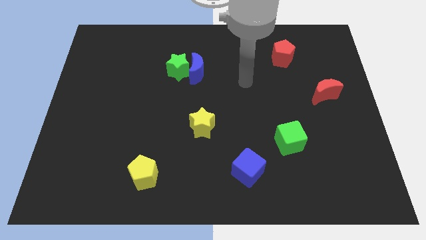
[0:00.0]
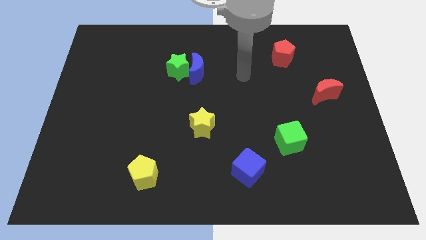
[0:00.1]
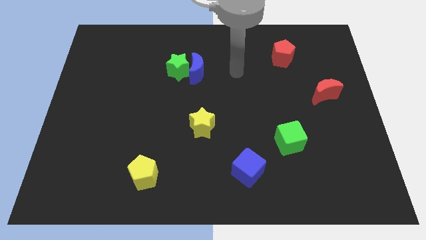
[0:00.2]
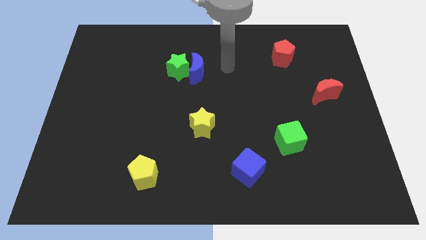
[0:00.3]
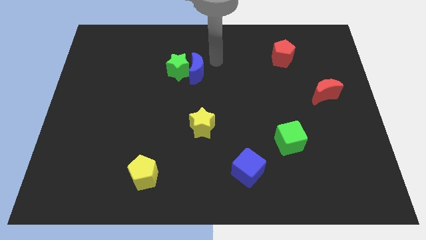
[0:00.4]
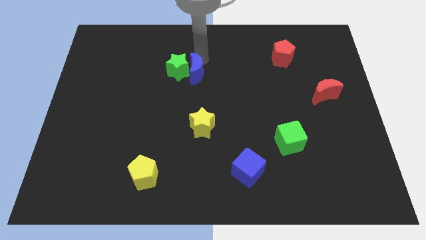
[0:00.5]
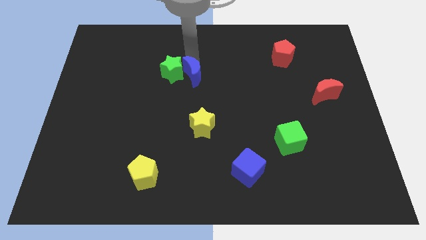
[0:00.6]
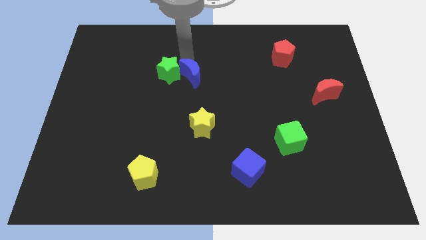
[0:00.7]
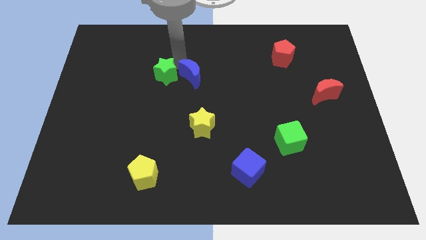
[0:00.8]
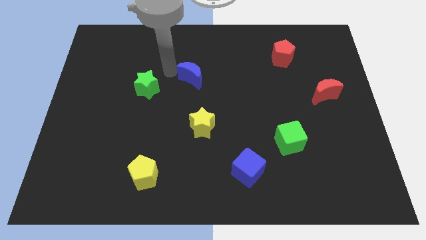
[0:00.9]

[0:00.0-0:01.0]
move the blue moon away from the green star

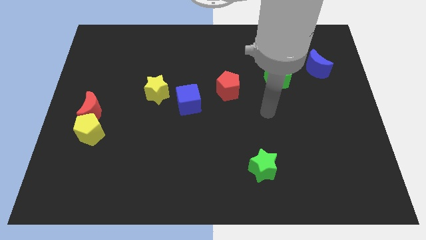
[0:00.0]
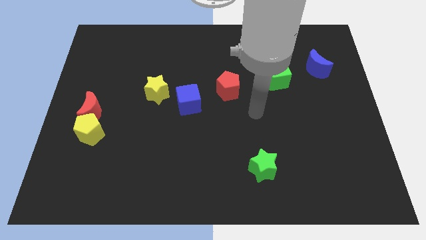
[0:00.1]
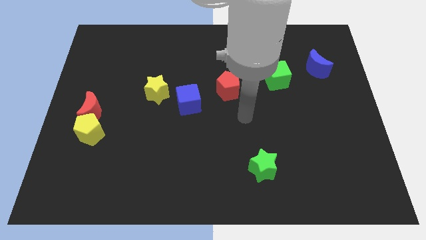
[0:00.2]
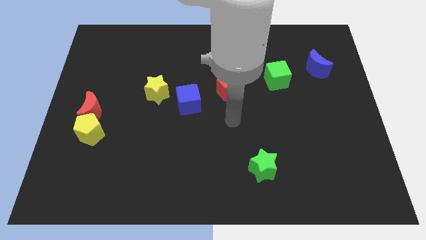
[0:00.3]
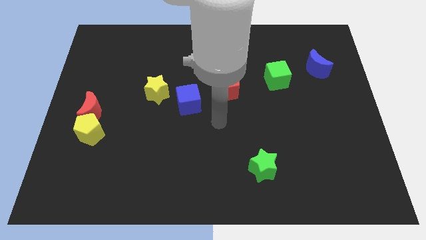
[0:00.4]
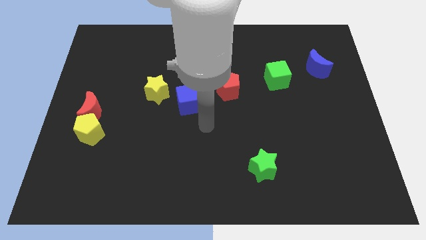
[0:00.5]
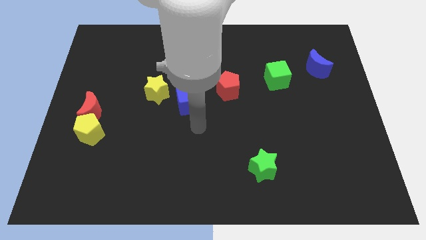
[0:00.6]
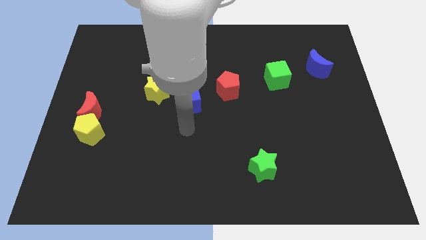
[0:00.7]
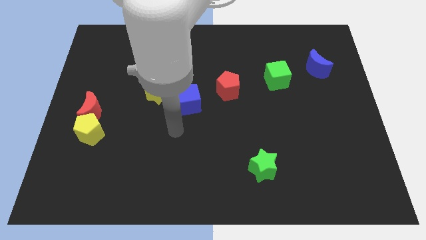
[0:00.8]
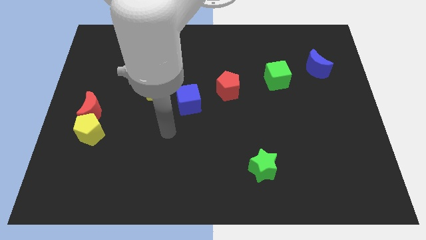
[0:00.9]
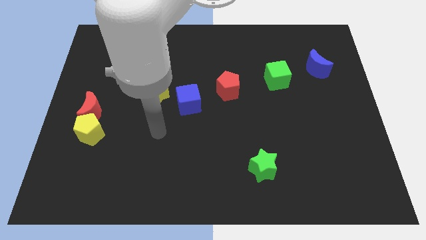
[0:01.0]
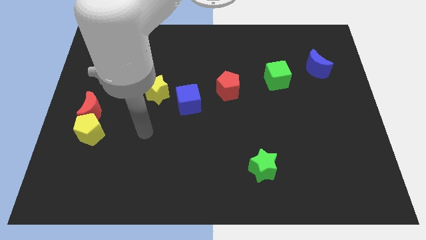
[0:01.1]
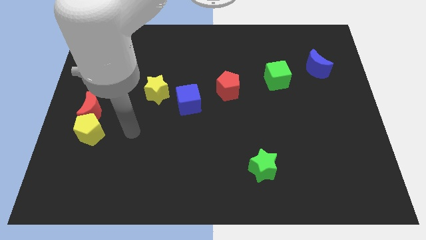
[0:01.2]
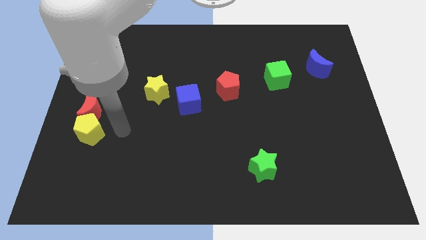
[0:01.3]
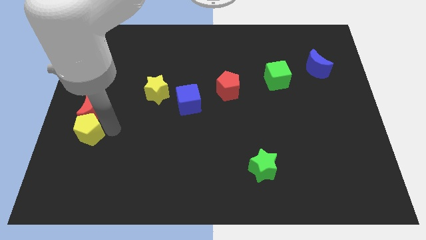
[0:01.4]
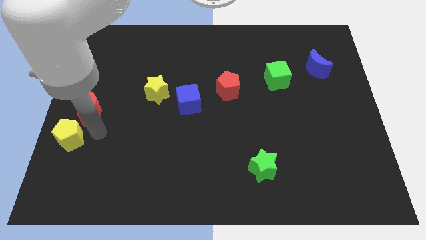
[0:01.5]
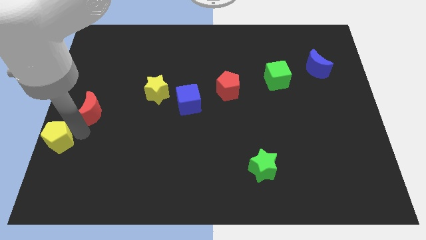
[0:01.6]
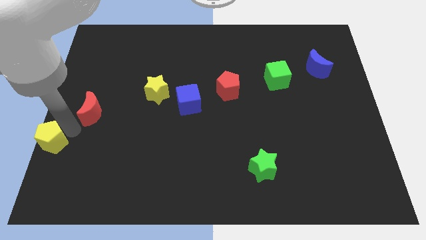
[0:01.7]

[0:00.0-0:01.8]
separate the red moon from the yellow pentagon

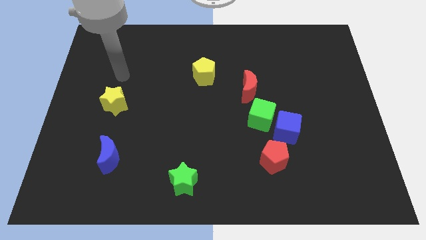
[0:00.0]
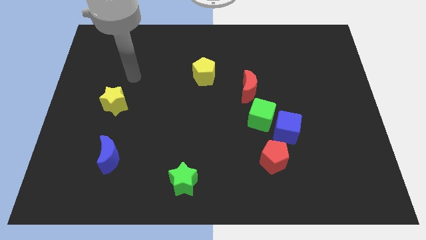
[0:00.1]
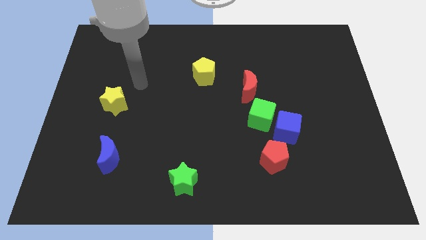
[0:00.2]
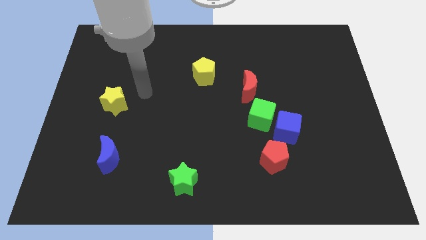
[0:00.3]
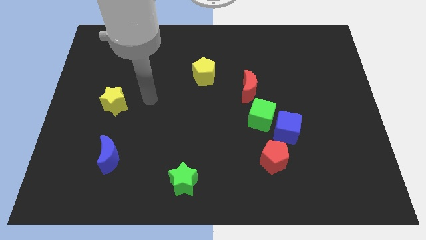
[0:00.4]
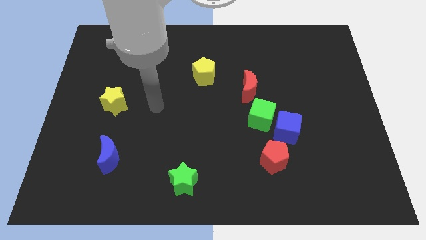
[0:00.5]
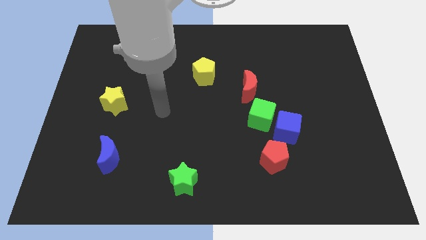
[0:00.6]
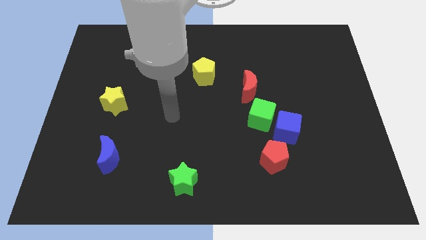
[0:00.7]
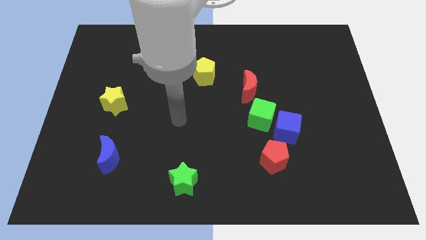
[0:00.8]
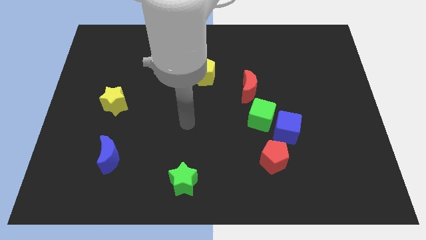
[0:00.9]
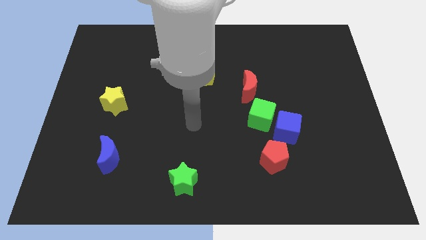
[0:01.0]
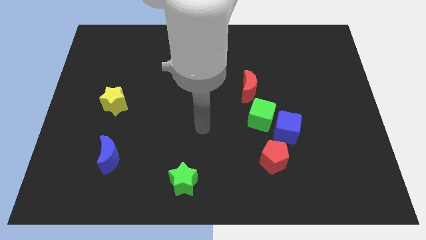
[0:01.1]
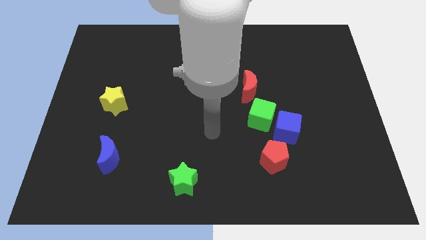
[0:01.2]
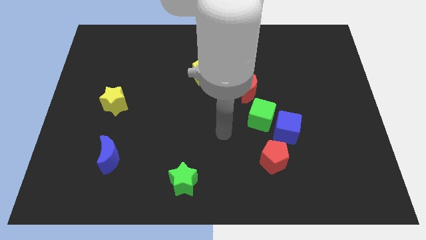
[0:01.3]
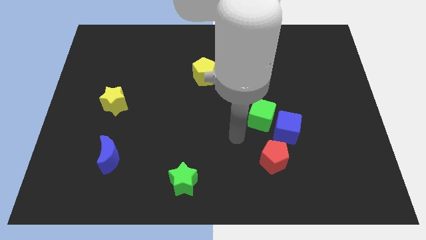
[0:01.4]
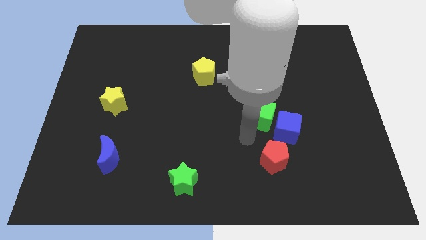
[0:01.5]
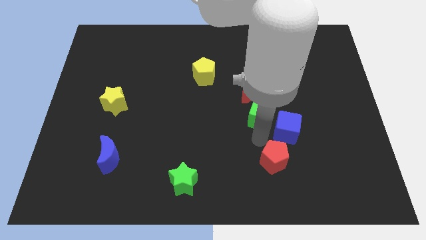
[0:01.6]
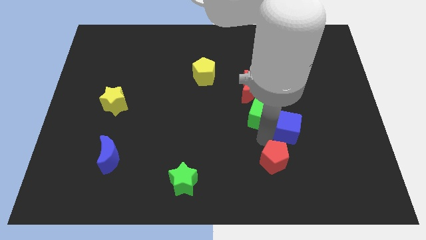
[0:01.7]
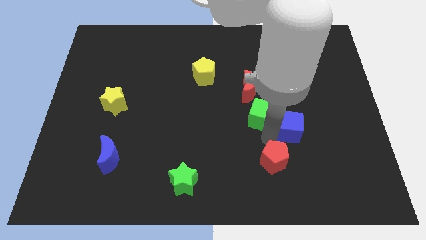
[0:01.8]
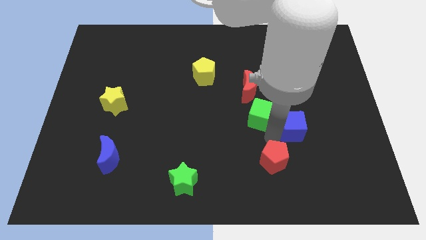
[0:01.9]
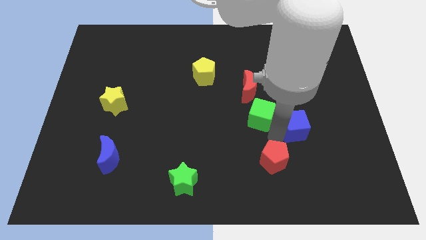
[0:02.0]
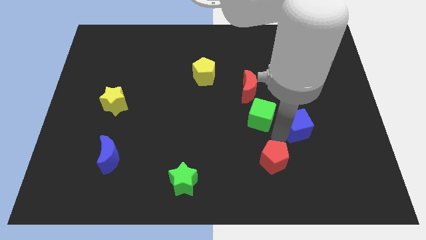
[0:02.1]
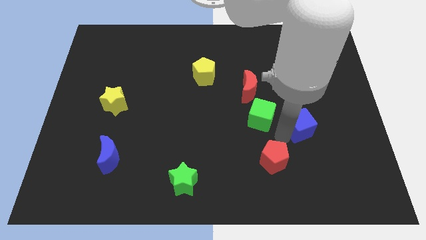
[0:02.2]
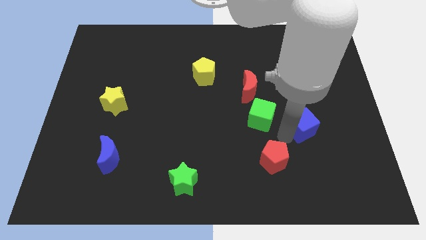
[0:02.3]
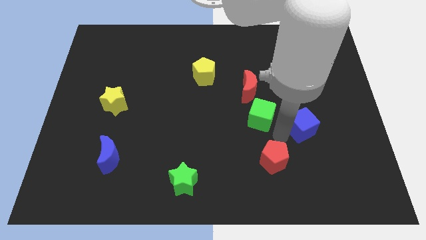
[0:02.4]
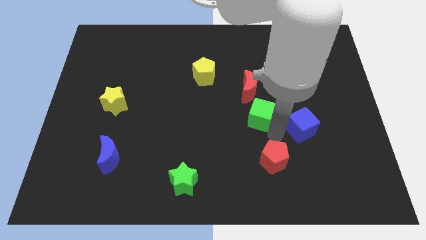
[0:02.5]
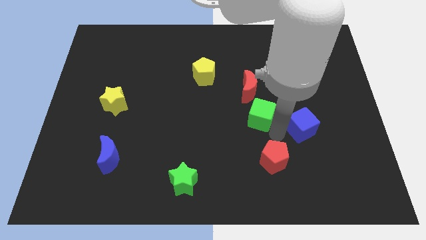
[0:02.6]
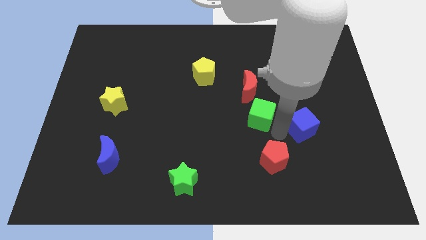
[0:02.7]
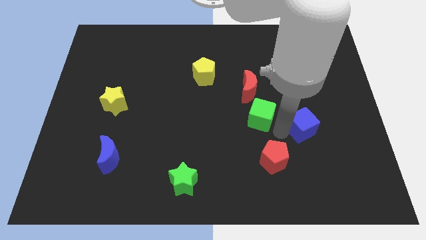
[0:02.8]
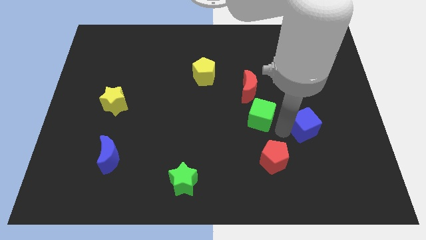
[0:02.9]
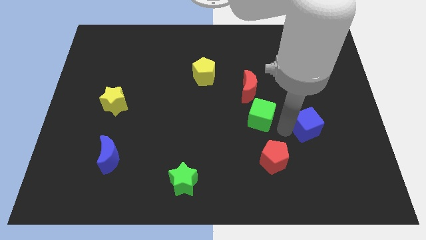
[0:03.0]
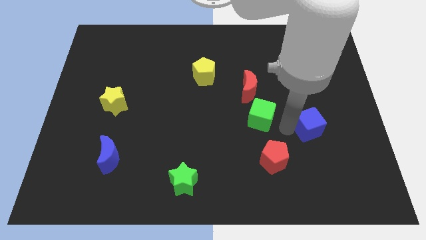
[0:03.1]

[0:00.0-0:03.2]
separate the blue cube from the green cube and red pentagon

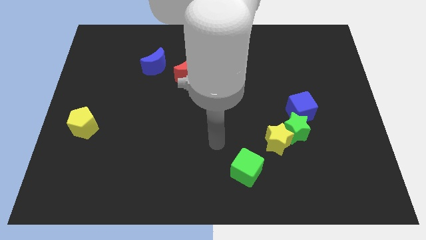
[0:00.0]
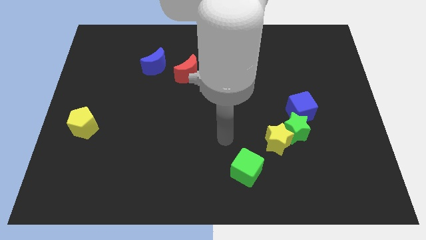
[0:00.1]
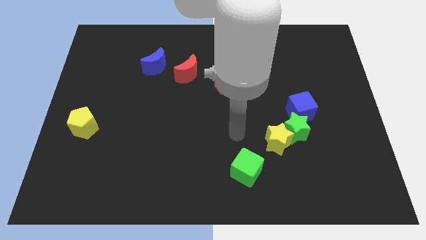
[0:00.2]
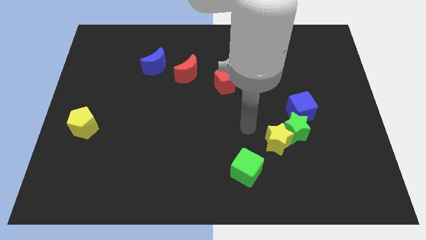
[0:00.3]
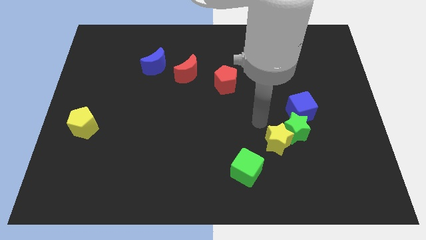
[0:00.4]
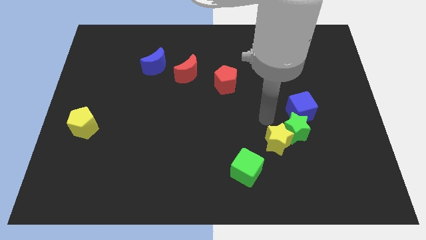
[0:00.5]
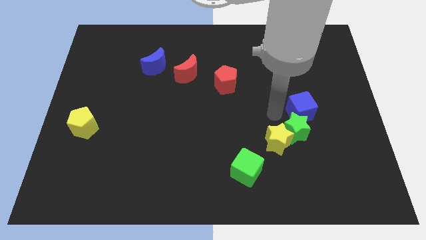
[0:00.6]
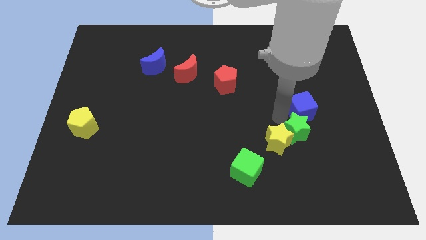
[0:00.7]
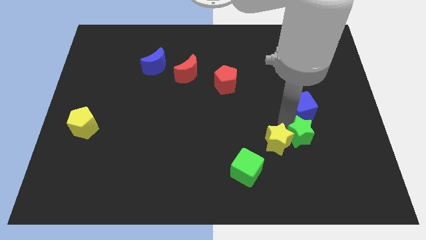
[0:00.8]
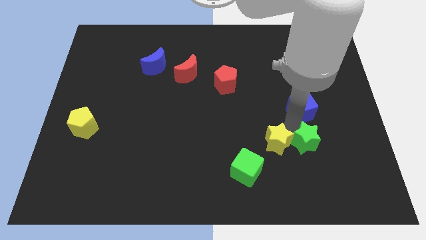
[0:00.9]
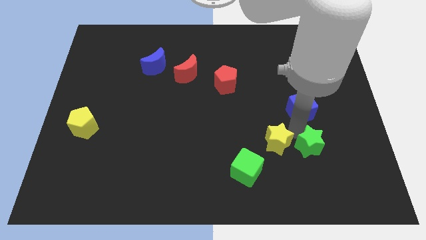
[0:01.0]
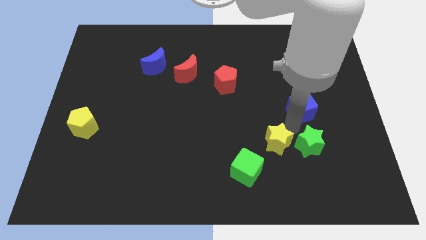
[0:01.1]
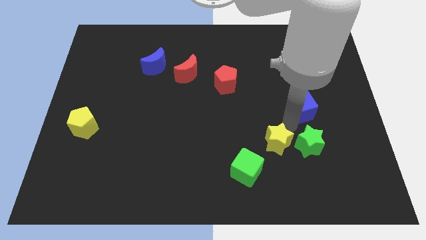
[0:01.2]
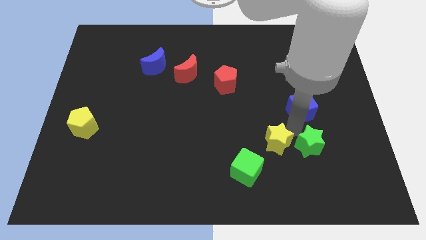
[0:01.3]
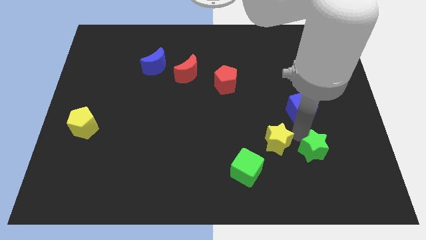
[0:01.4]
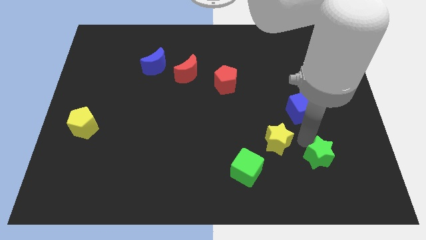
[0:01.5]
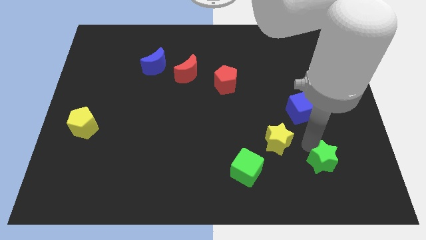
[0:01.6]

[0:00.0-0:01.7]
pull the green star apart from the yellow star and blue cube

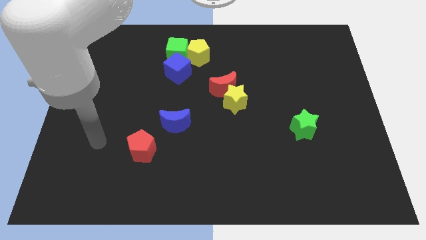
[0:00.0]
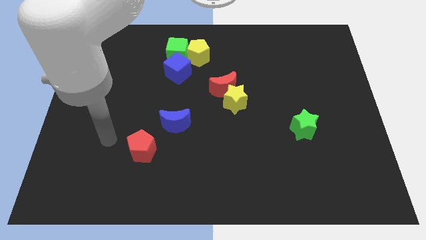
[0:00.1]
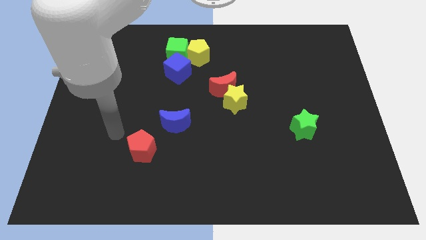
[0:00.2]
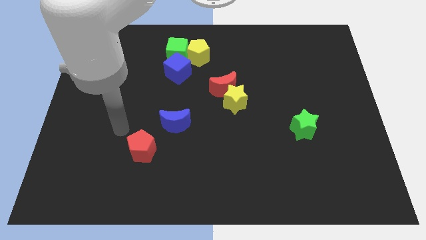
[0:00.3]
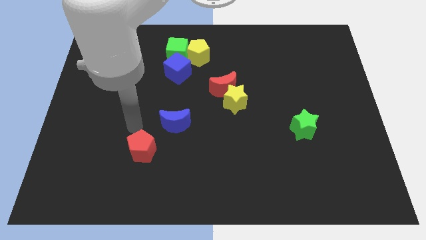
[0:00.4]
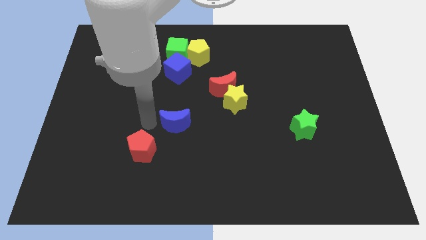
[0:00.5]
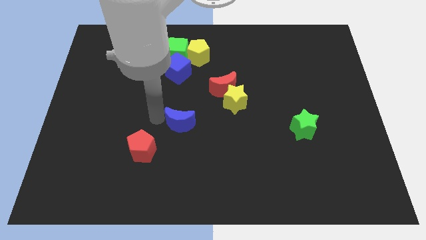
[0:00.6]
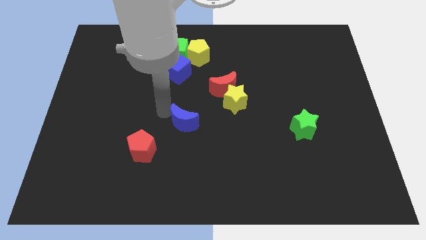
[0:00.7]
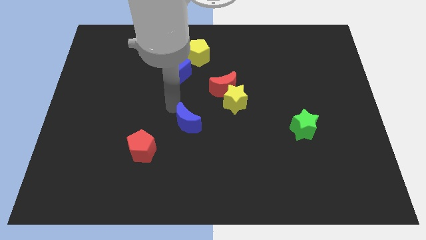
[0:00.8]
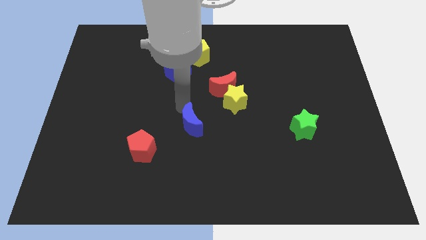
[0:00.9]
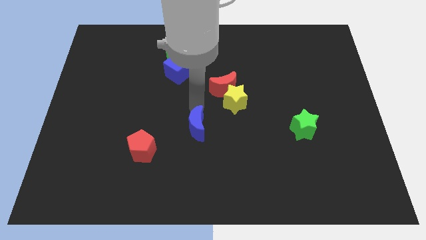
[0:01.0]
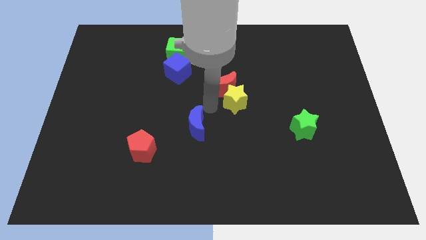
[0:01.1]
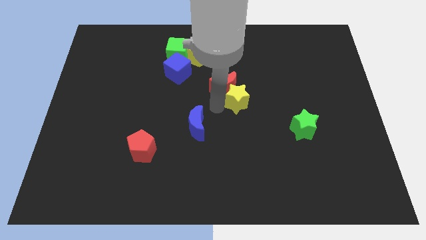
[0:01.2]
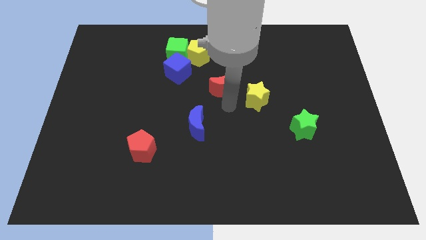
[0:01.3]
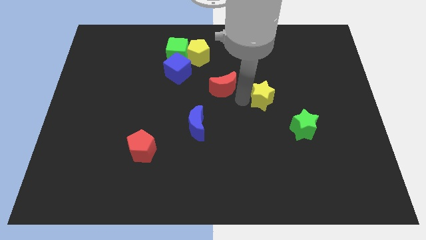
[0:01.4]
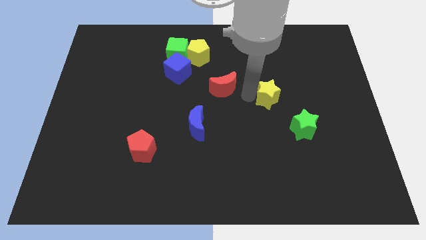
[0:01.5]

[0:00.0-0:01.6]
pull the red moon apart from the yellow star
